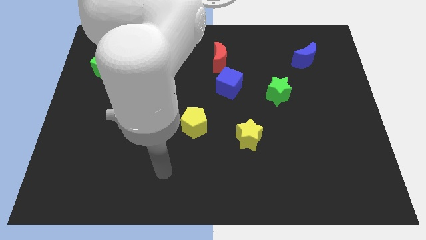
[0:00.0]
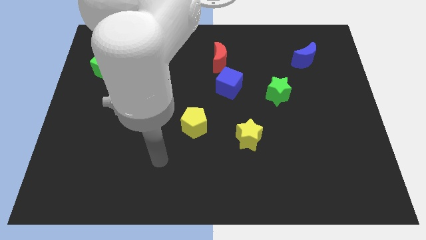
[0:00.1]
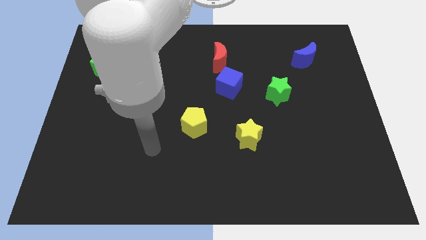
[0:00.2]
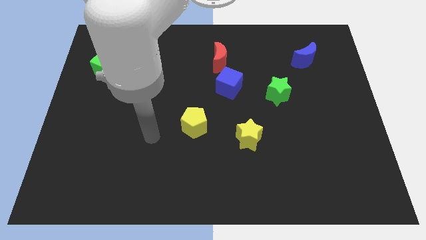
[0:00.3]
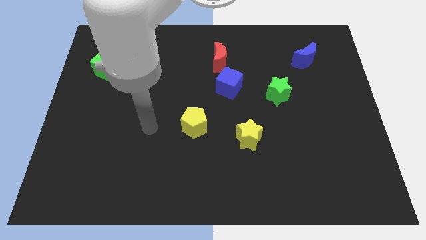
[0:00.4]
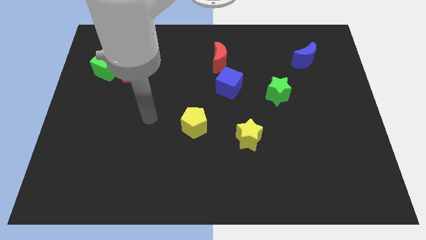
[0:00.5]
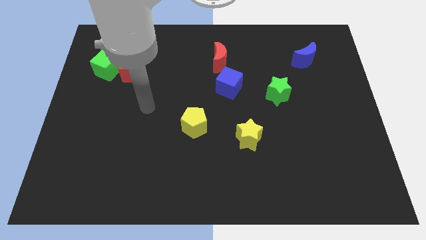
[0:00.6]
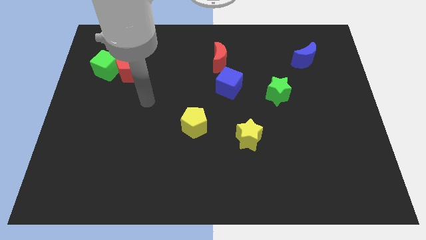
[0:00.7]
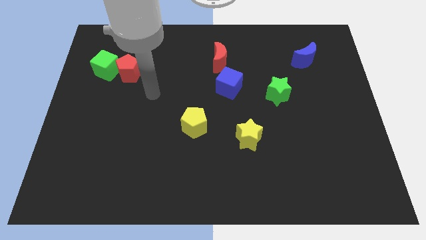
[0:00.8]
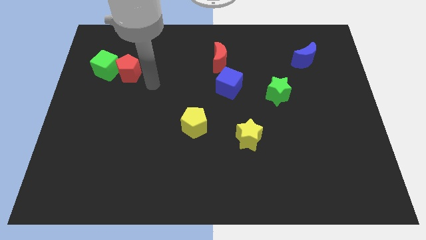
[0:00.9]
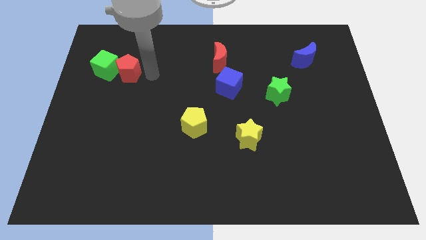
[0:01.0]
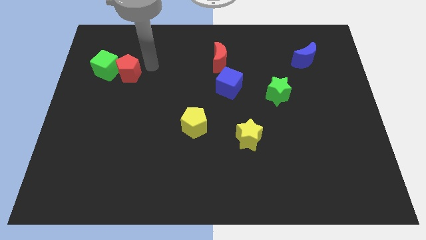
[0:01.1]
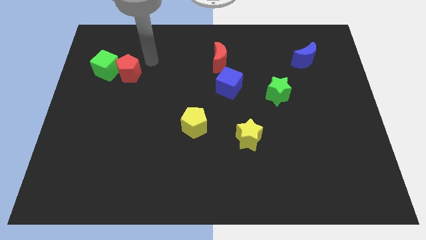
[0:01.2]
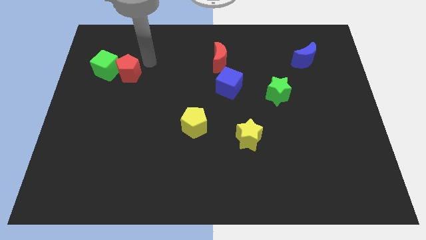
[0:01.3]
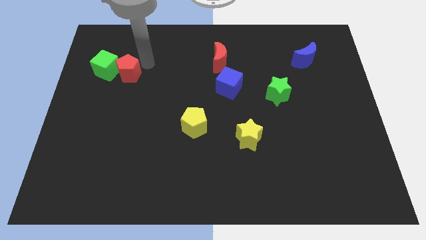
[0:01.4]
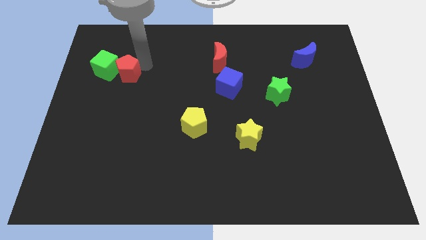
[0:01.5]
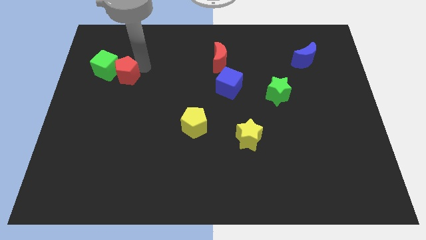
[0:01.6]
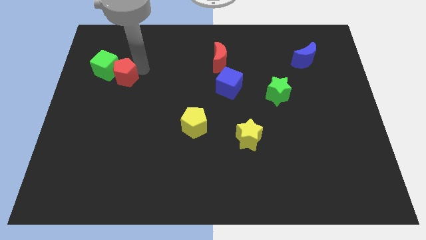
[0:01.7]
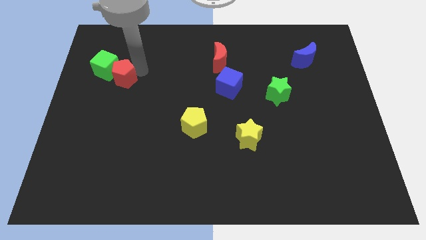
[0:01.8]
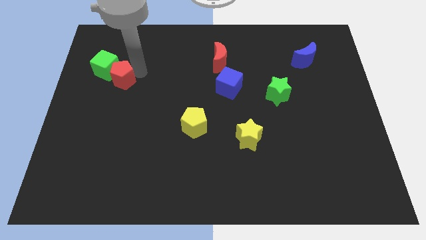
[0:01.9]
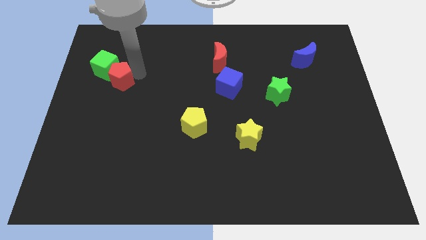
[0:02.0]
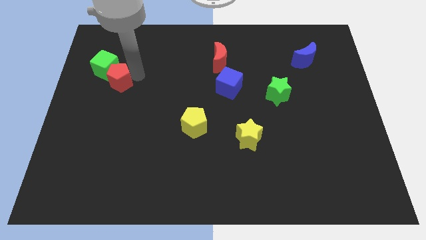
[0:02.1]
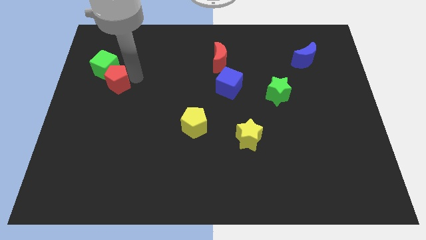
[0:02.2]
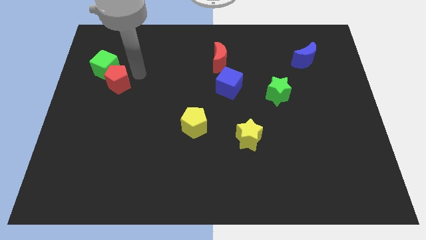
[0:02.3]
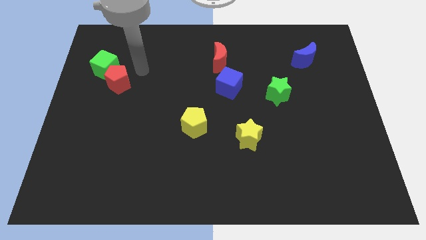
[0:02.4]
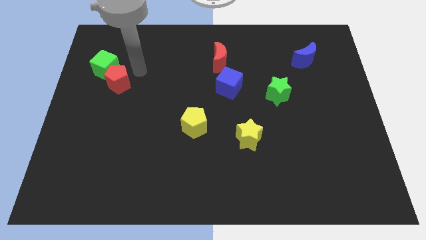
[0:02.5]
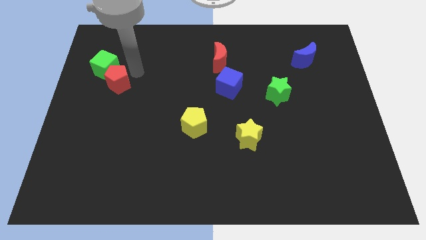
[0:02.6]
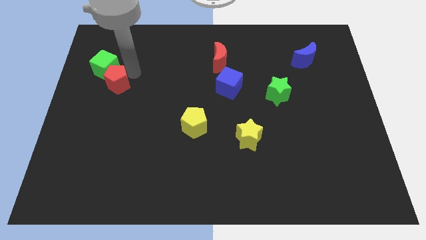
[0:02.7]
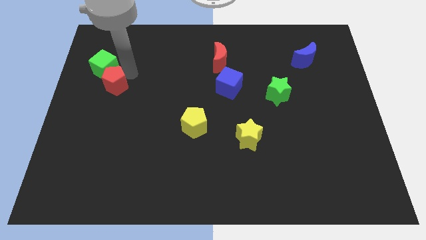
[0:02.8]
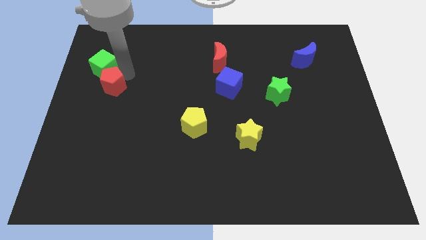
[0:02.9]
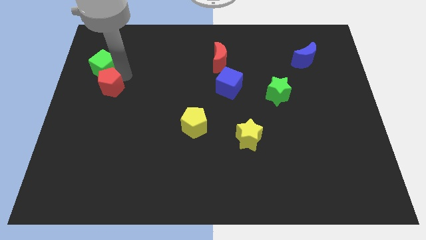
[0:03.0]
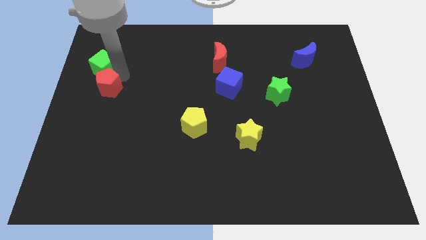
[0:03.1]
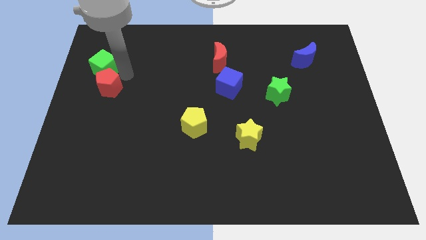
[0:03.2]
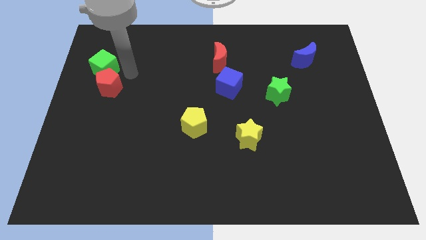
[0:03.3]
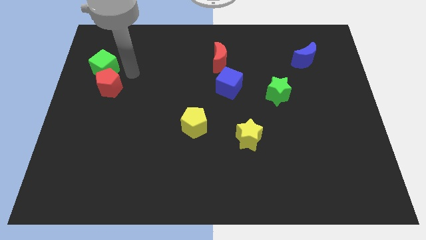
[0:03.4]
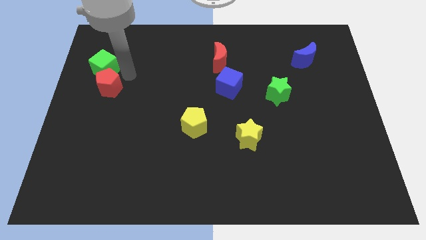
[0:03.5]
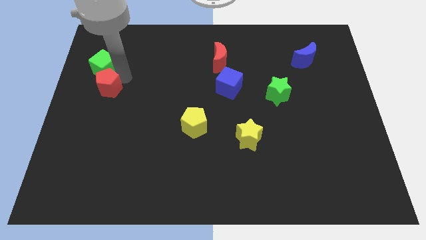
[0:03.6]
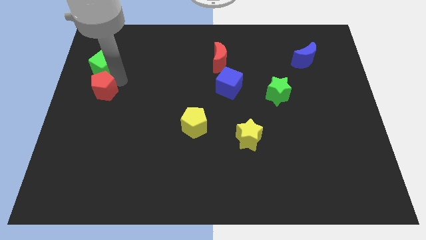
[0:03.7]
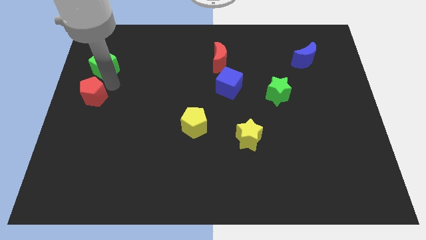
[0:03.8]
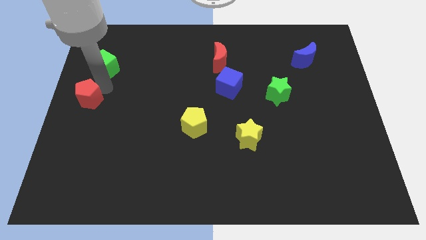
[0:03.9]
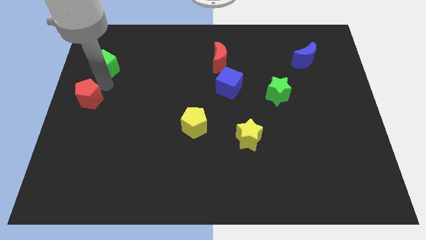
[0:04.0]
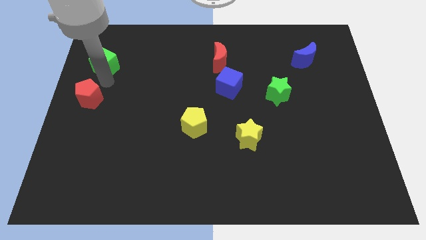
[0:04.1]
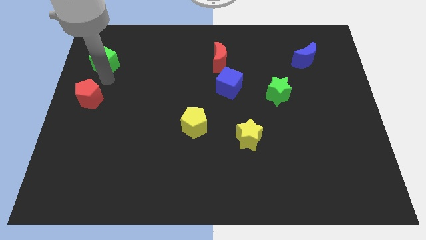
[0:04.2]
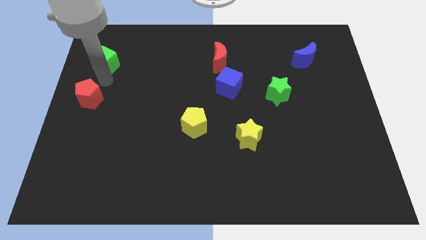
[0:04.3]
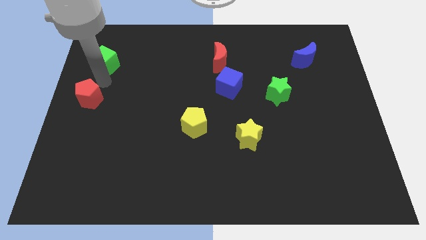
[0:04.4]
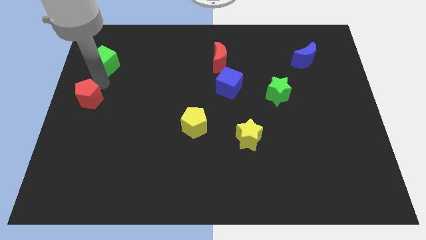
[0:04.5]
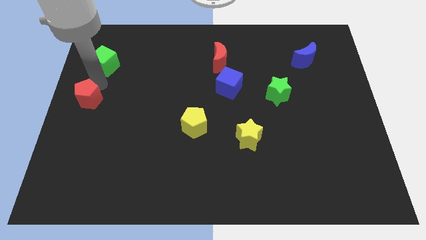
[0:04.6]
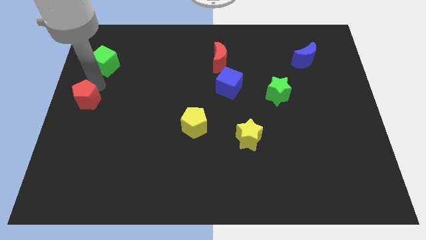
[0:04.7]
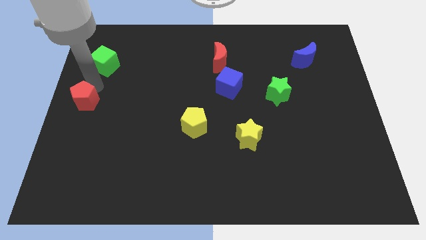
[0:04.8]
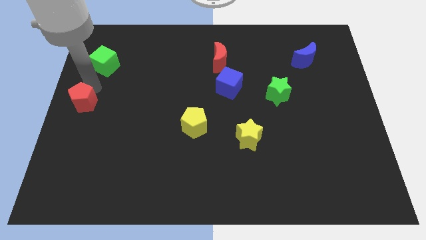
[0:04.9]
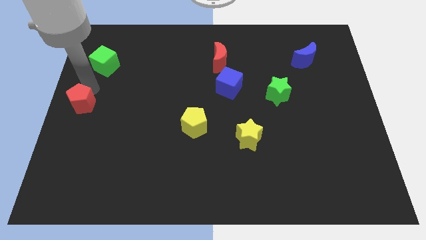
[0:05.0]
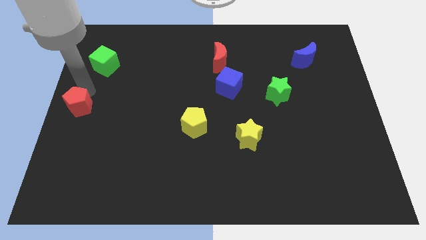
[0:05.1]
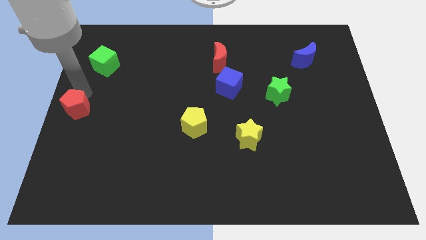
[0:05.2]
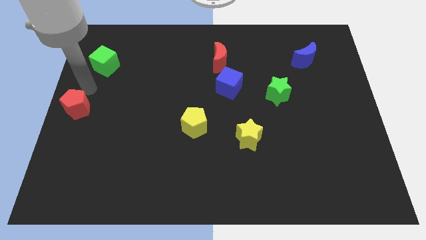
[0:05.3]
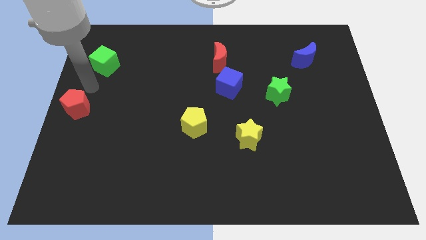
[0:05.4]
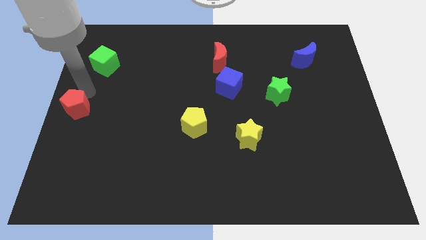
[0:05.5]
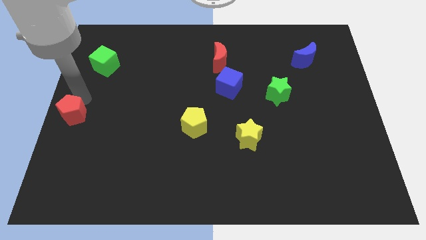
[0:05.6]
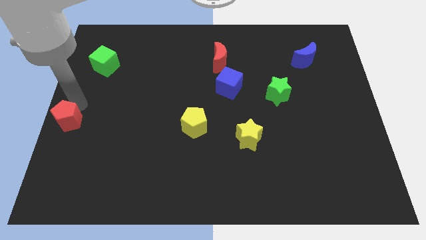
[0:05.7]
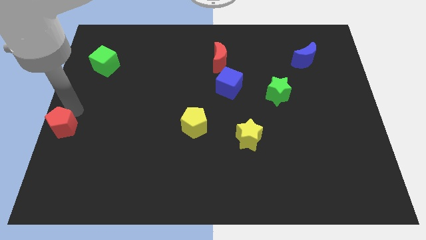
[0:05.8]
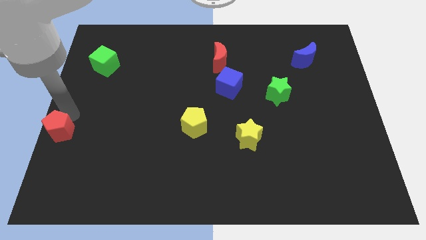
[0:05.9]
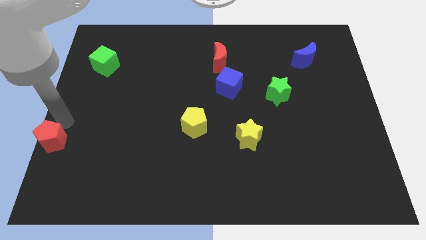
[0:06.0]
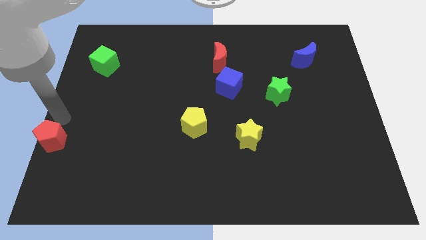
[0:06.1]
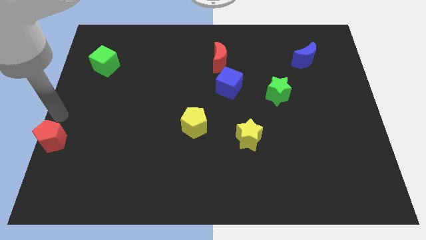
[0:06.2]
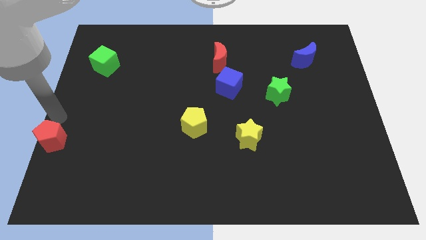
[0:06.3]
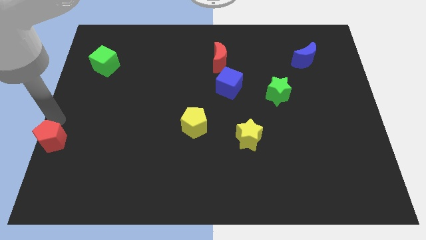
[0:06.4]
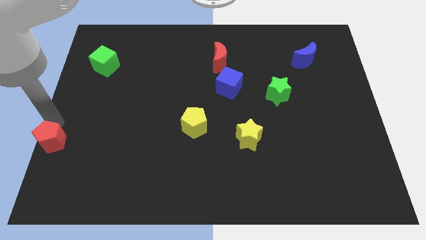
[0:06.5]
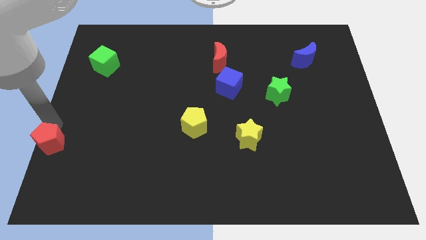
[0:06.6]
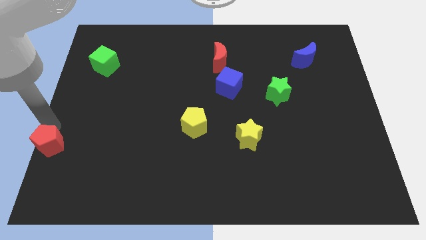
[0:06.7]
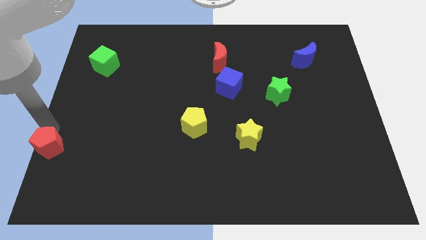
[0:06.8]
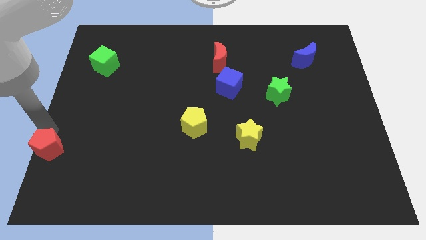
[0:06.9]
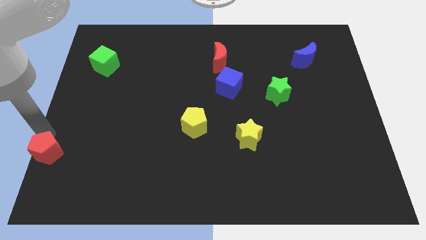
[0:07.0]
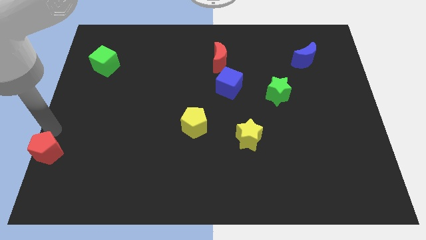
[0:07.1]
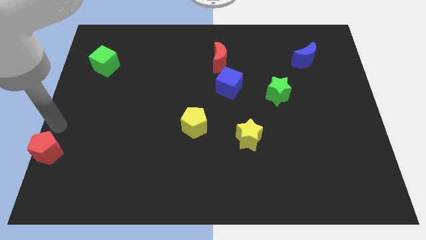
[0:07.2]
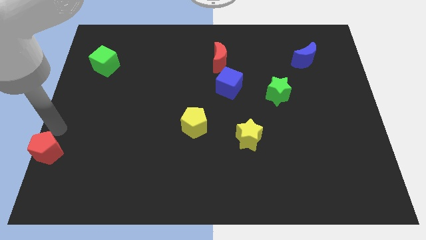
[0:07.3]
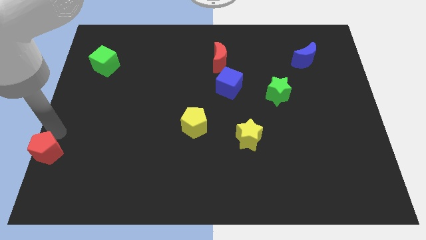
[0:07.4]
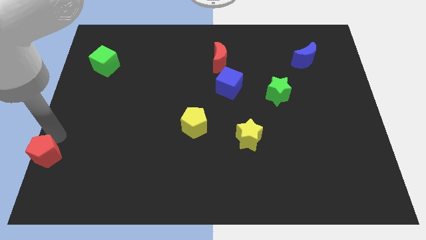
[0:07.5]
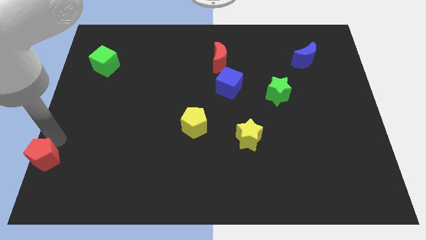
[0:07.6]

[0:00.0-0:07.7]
slide the red pentagon to the bottom left of the board

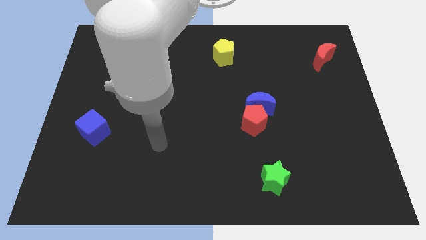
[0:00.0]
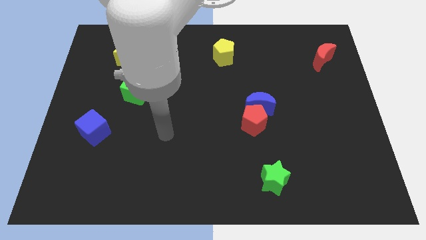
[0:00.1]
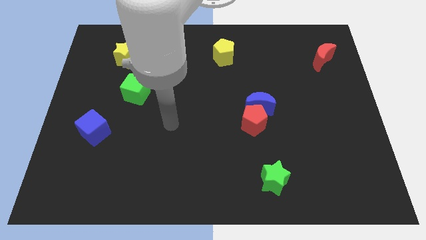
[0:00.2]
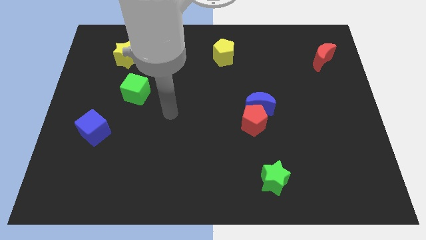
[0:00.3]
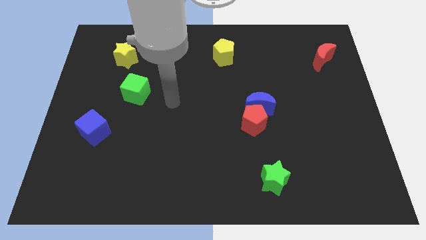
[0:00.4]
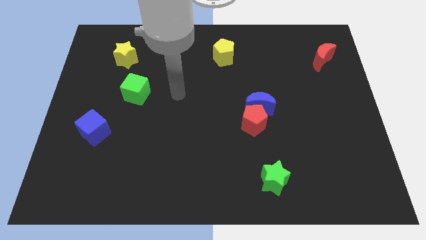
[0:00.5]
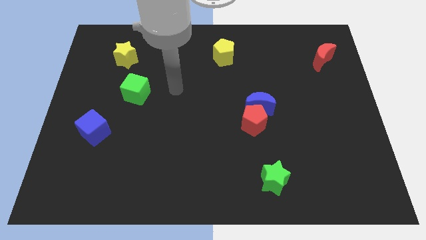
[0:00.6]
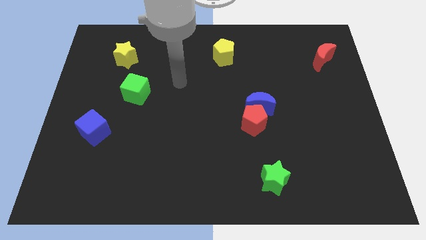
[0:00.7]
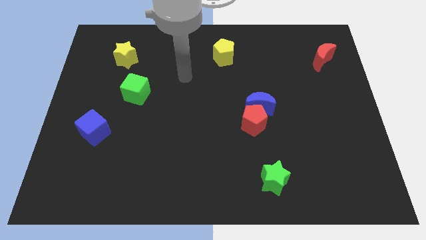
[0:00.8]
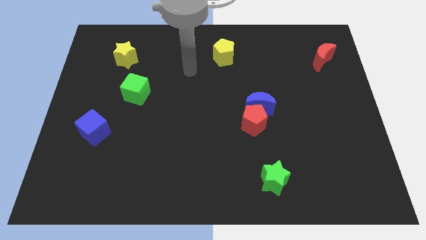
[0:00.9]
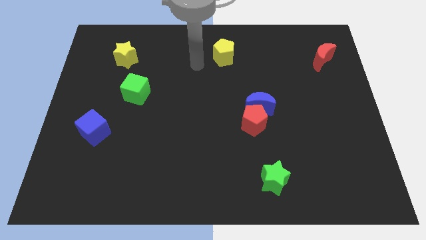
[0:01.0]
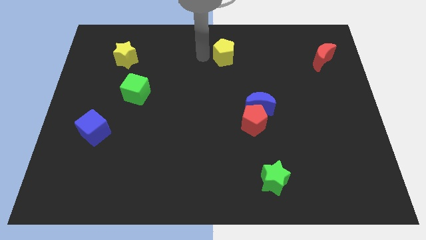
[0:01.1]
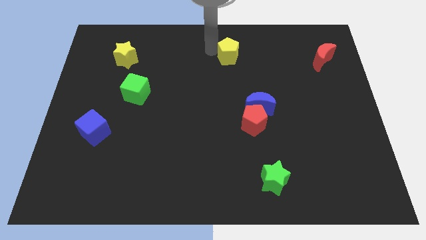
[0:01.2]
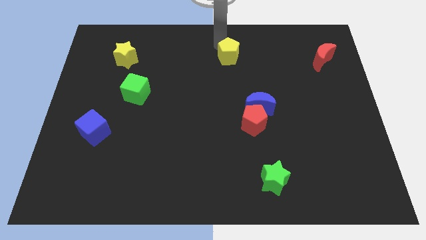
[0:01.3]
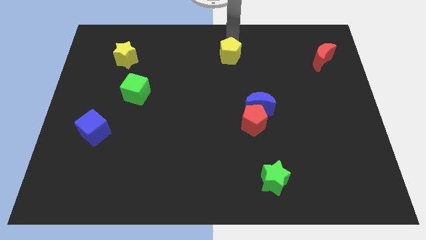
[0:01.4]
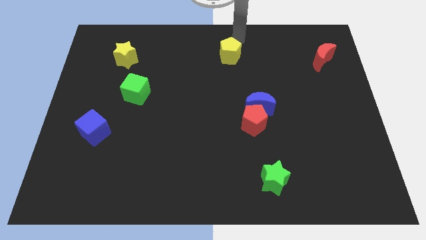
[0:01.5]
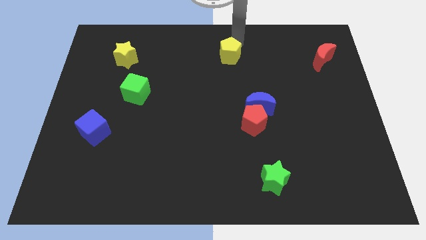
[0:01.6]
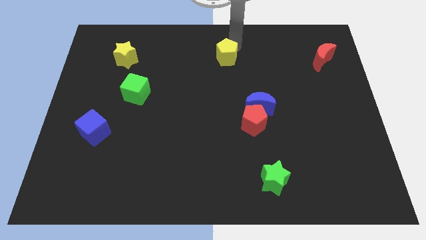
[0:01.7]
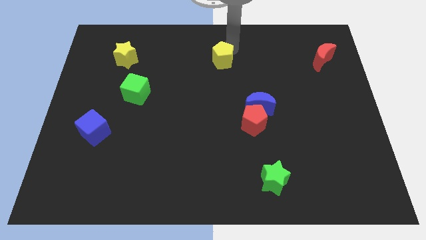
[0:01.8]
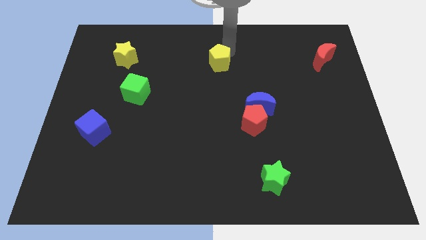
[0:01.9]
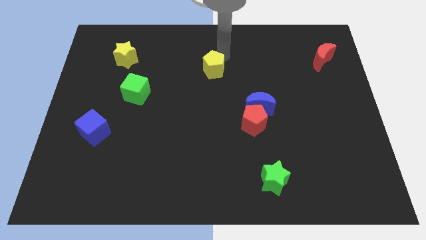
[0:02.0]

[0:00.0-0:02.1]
push the yellow pentagon to the middle
